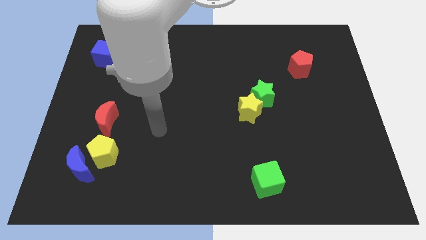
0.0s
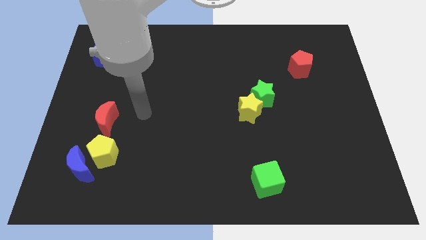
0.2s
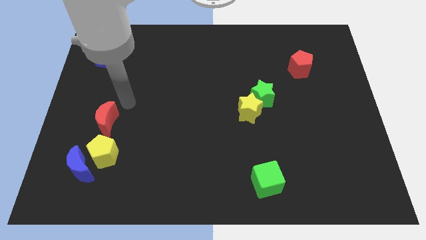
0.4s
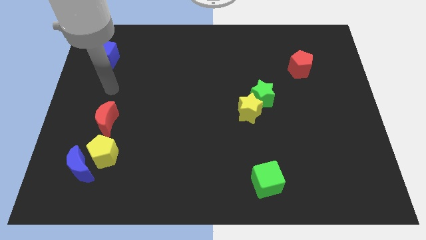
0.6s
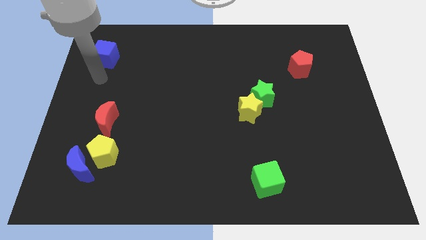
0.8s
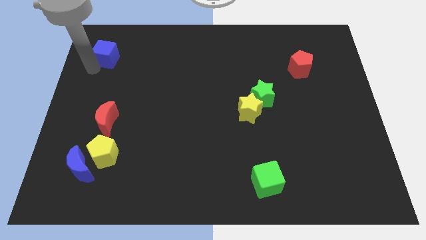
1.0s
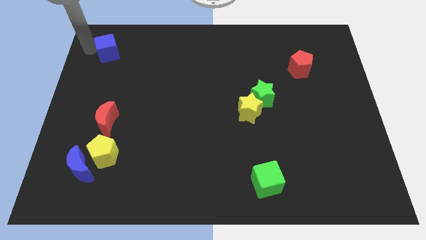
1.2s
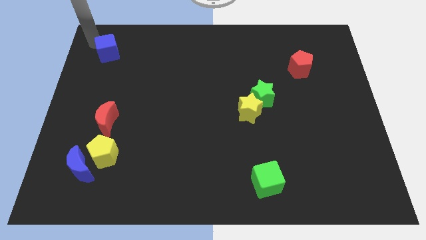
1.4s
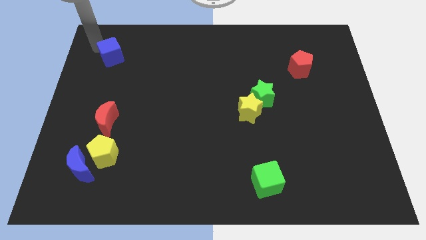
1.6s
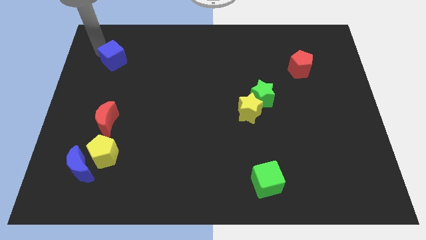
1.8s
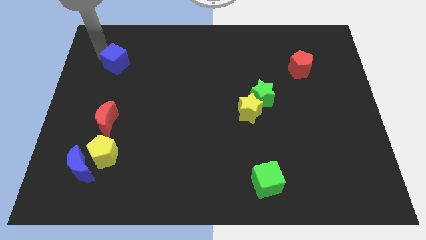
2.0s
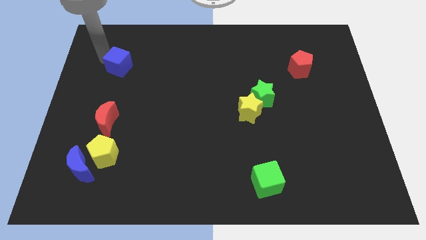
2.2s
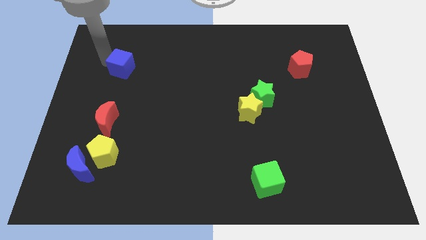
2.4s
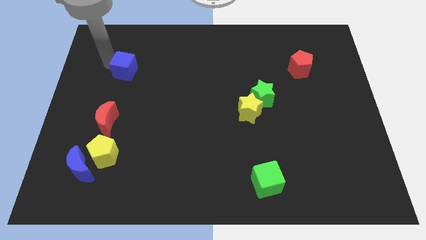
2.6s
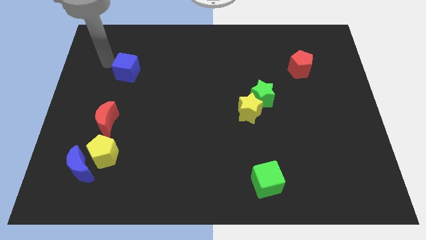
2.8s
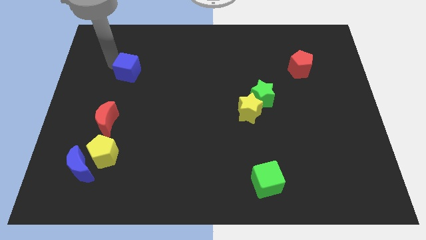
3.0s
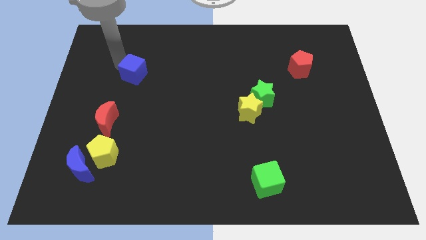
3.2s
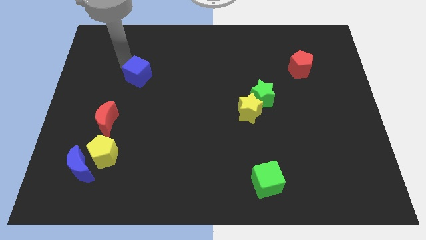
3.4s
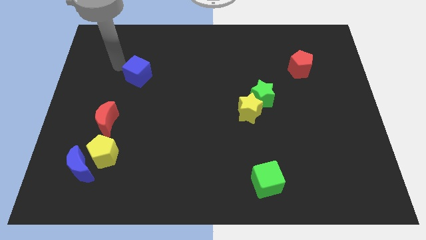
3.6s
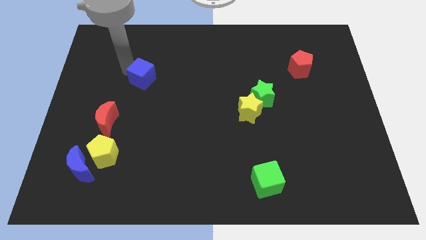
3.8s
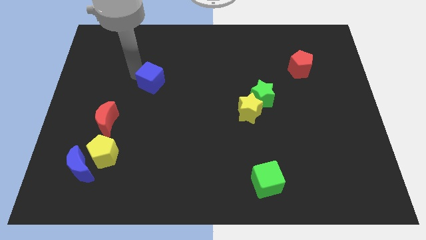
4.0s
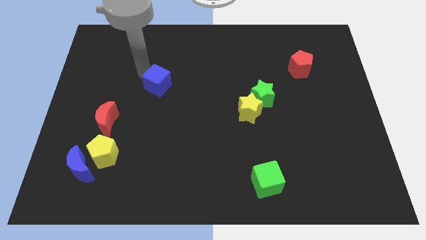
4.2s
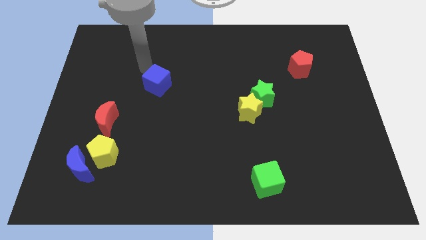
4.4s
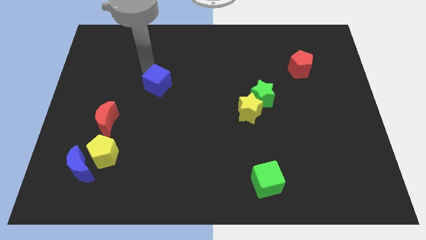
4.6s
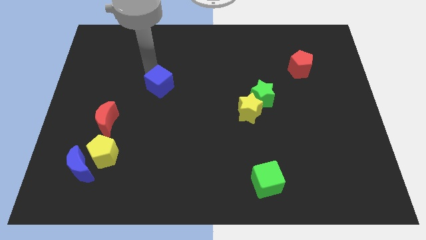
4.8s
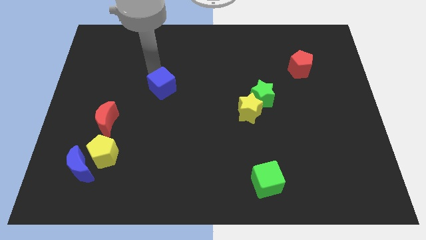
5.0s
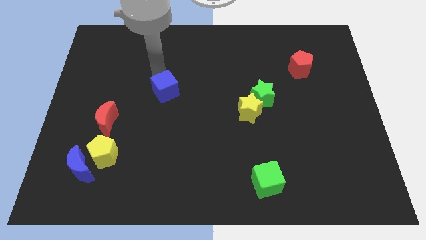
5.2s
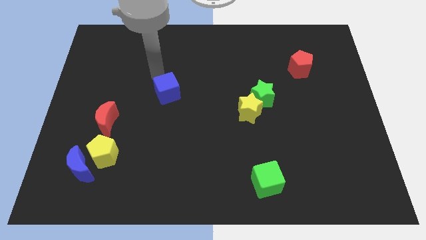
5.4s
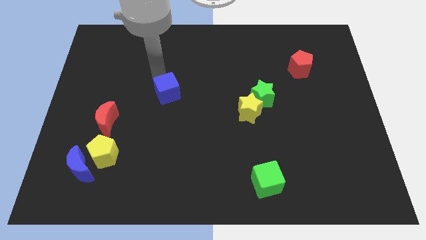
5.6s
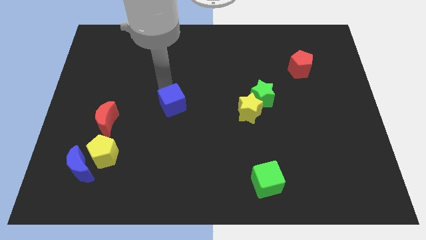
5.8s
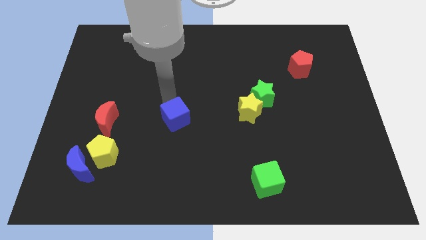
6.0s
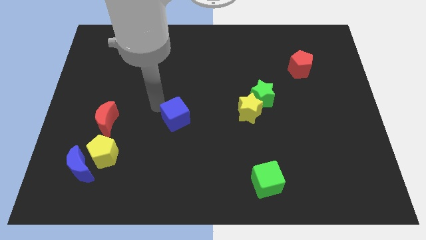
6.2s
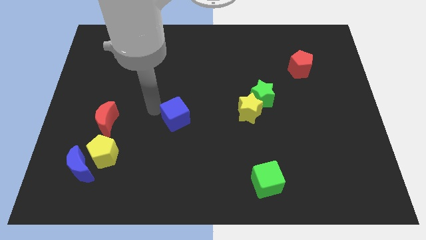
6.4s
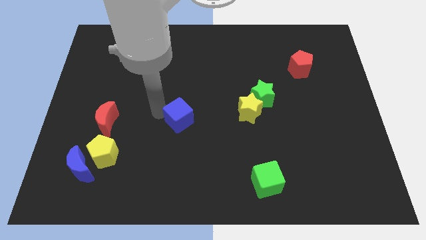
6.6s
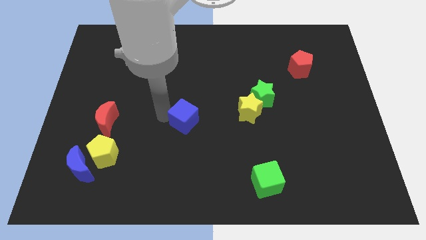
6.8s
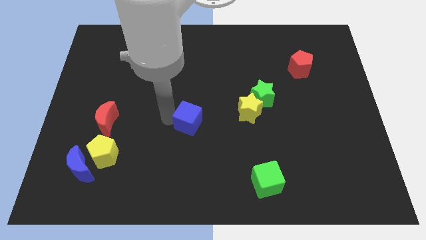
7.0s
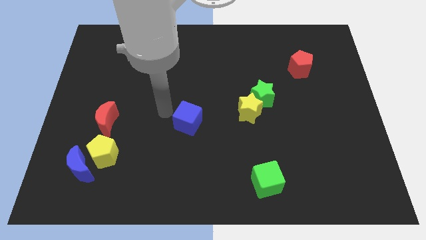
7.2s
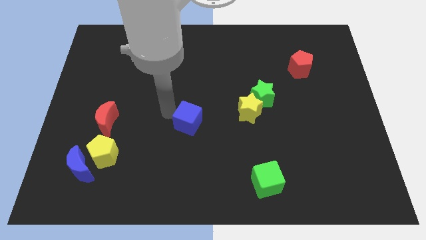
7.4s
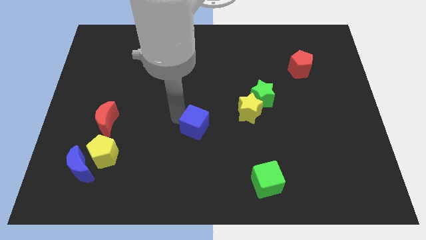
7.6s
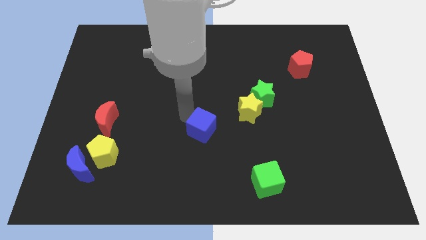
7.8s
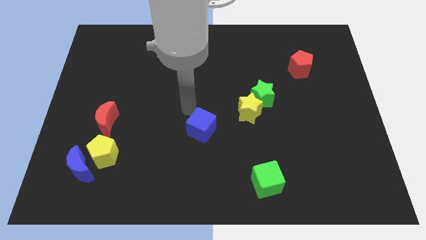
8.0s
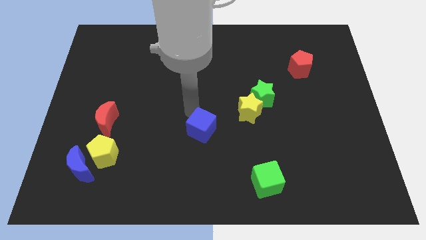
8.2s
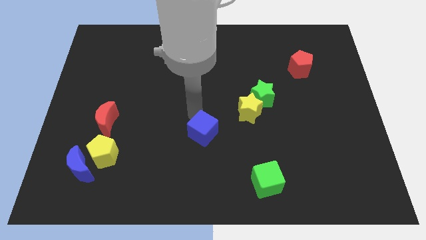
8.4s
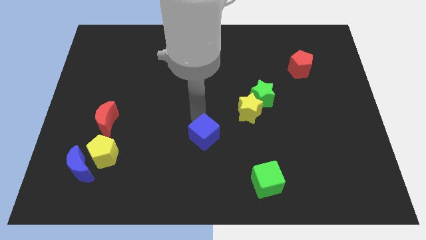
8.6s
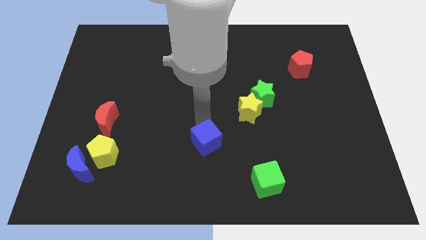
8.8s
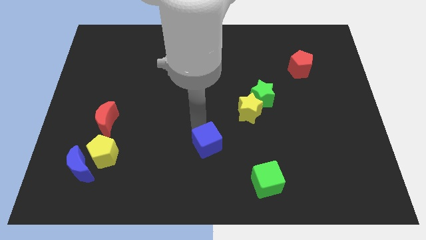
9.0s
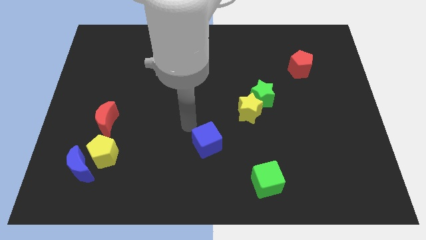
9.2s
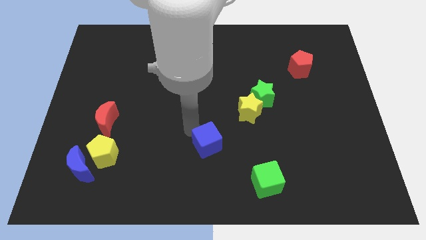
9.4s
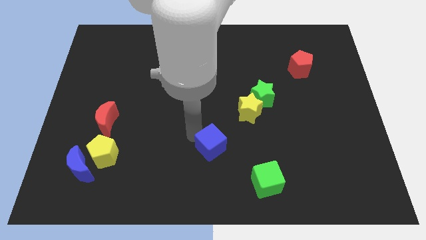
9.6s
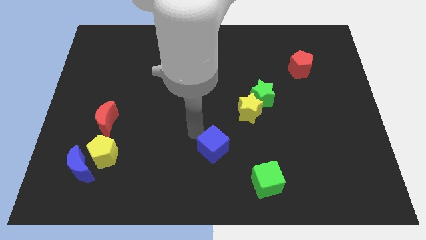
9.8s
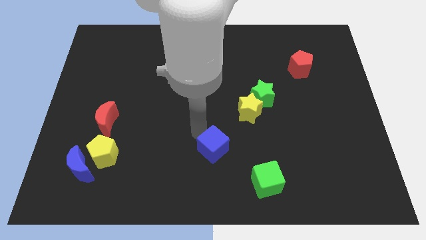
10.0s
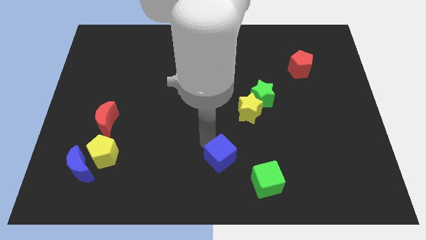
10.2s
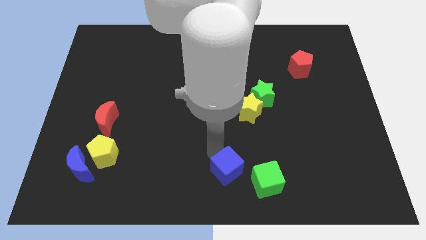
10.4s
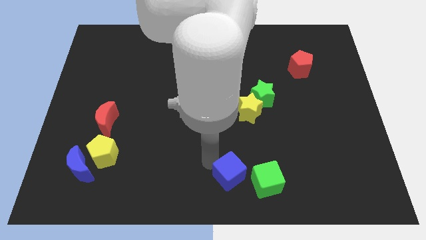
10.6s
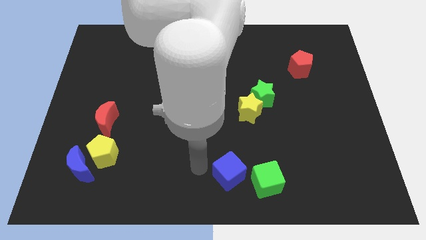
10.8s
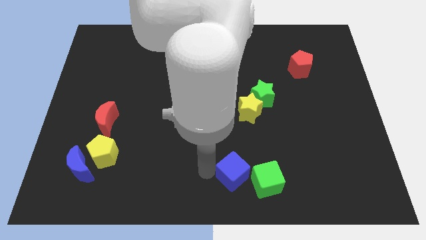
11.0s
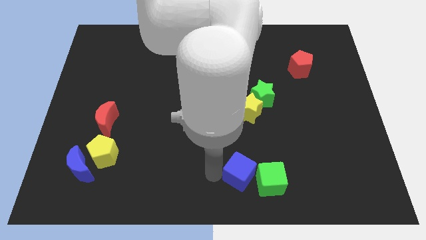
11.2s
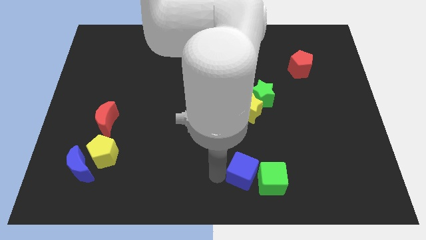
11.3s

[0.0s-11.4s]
move the blue cube towards the green cube

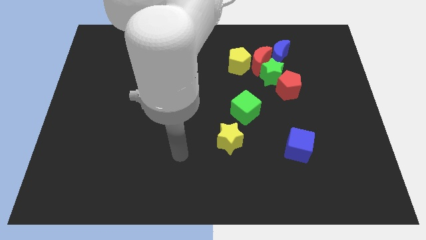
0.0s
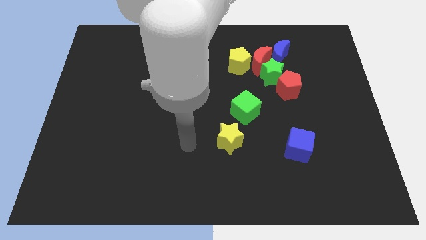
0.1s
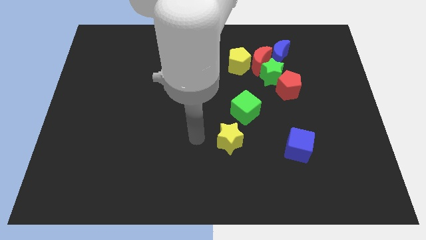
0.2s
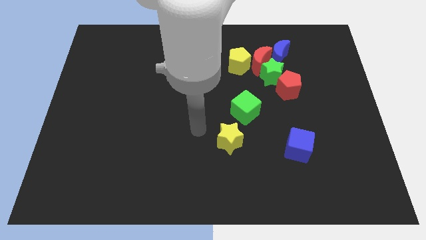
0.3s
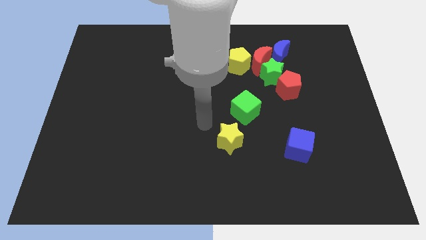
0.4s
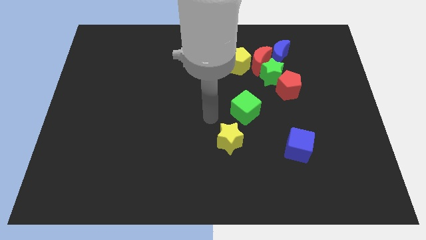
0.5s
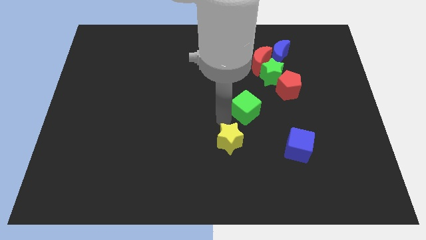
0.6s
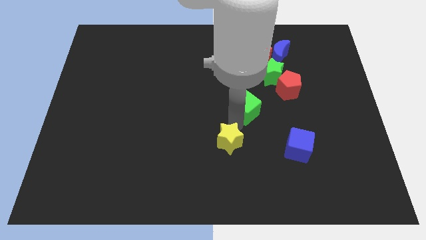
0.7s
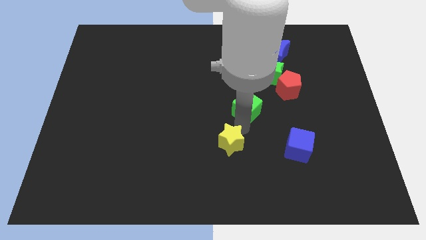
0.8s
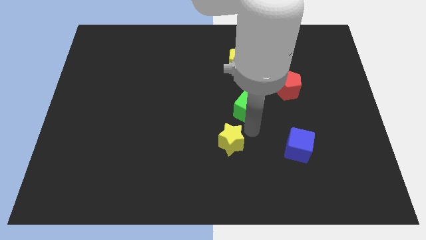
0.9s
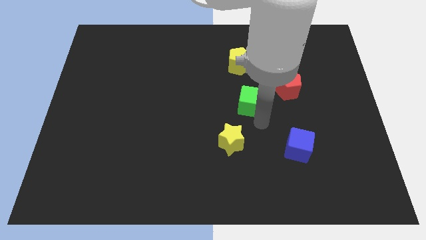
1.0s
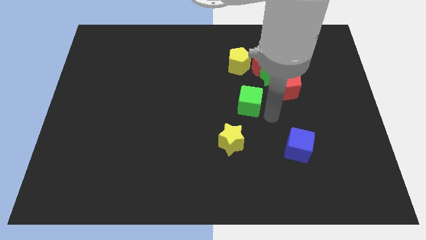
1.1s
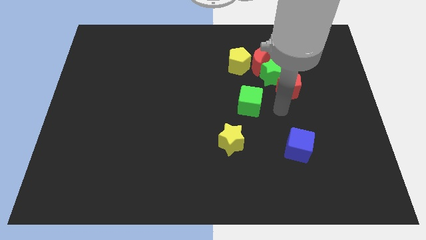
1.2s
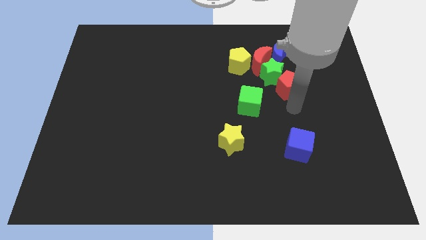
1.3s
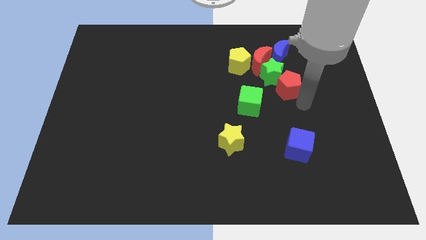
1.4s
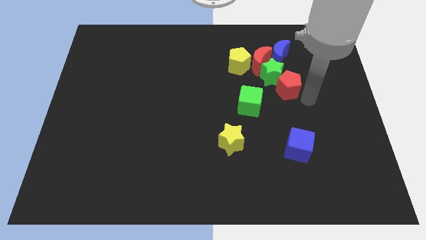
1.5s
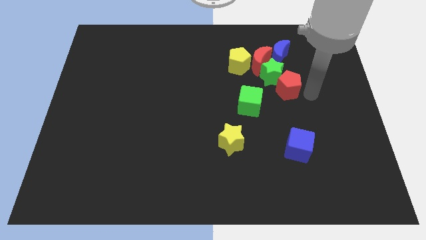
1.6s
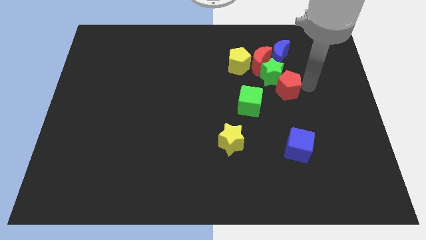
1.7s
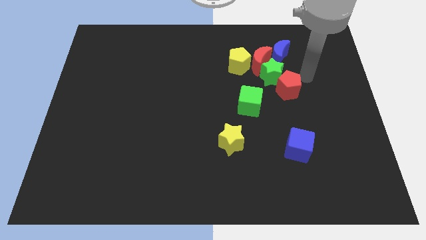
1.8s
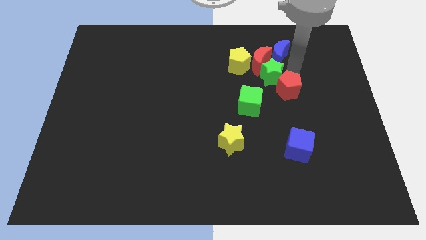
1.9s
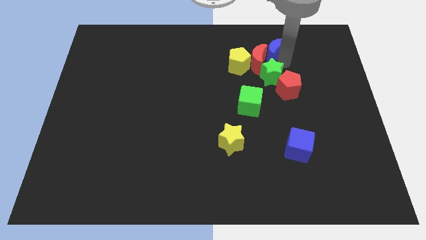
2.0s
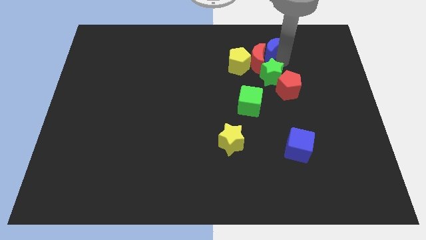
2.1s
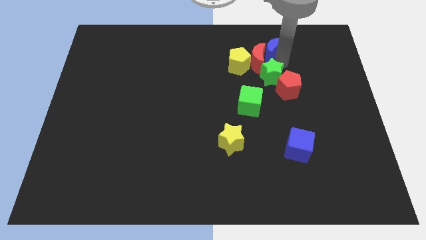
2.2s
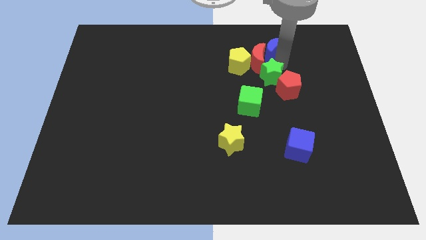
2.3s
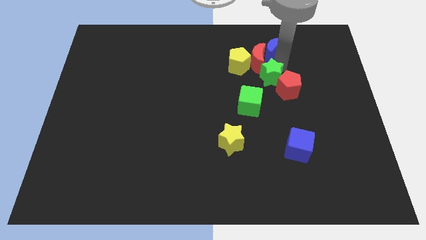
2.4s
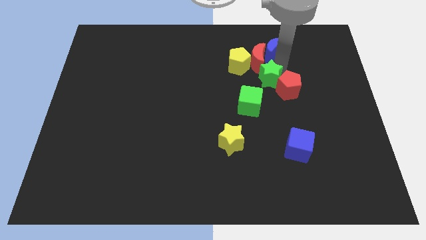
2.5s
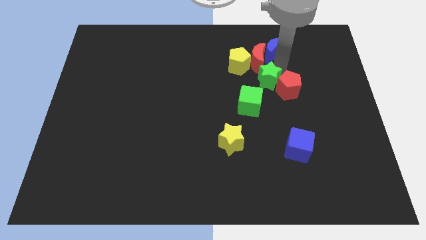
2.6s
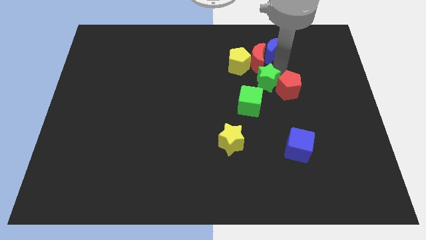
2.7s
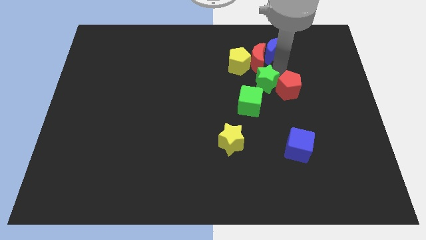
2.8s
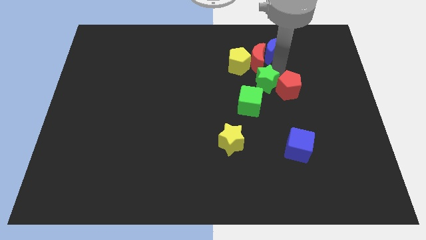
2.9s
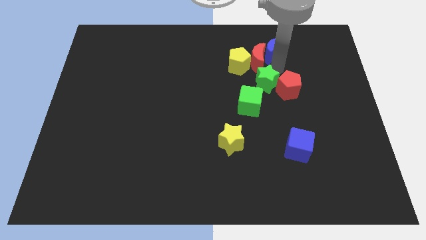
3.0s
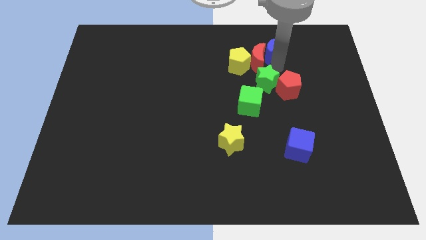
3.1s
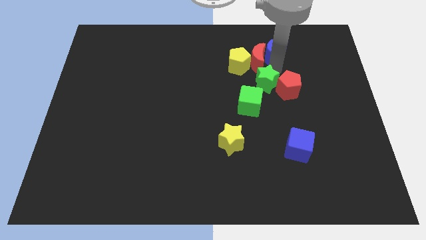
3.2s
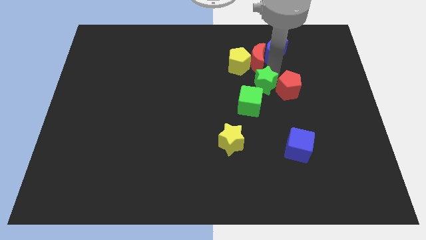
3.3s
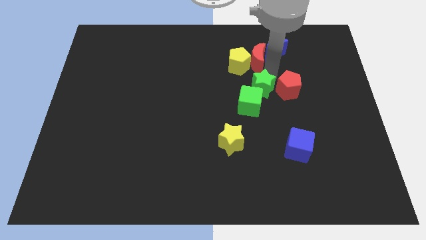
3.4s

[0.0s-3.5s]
slide the green star close to the green cube
